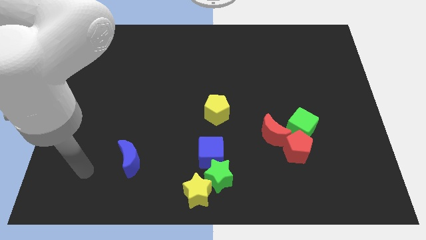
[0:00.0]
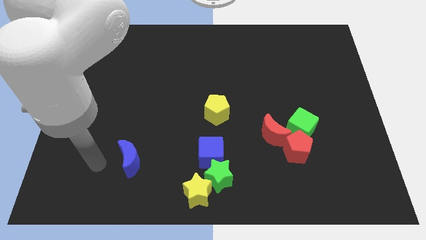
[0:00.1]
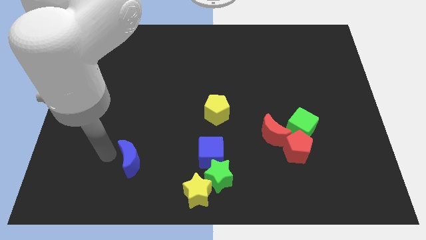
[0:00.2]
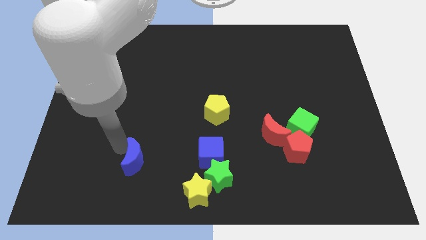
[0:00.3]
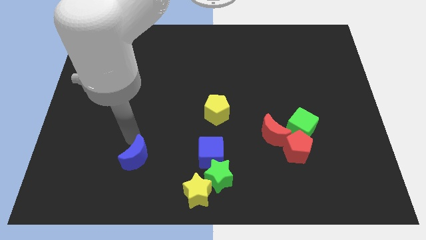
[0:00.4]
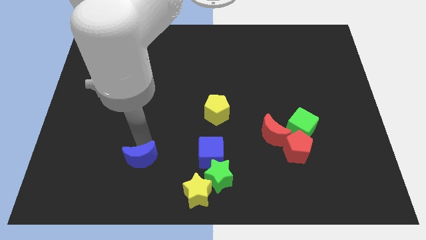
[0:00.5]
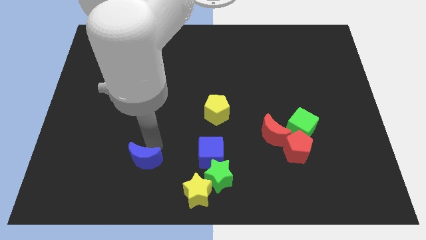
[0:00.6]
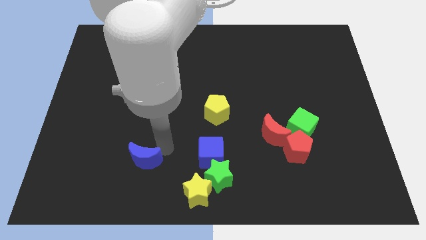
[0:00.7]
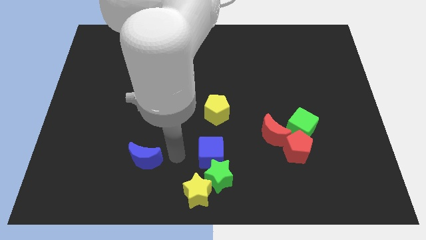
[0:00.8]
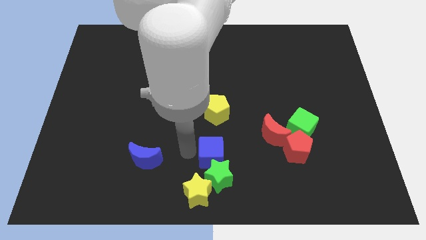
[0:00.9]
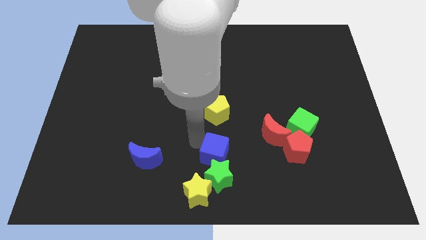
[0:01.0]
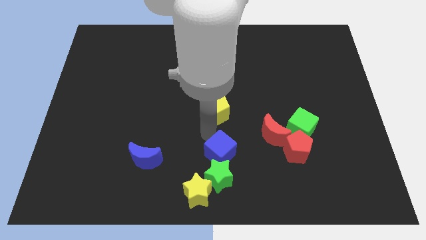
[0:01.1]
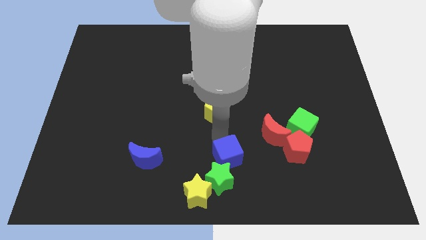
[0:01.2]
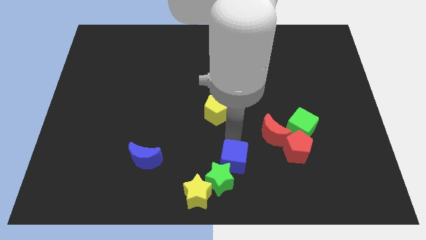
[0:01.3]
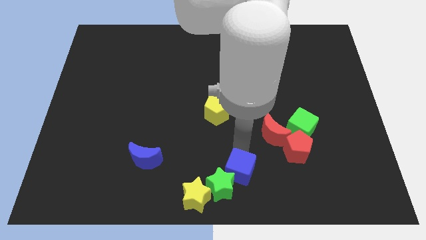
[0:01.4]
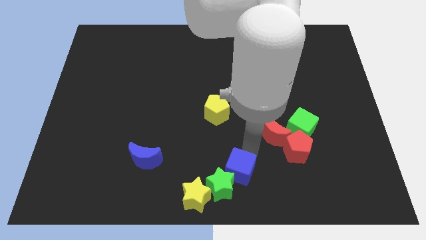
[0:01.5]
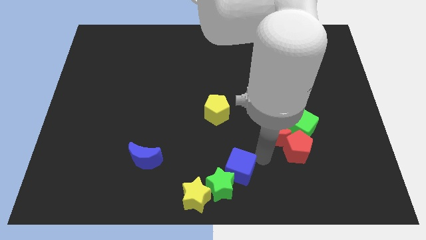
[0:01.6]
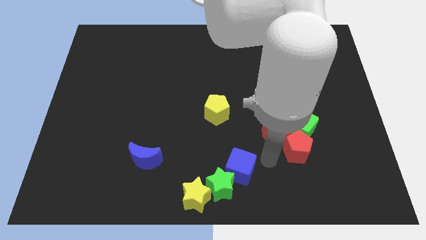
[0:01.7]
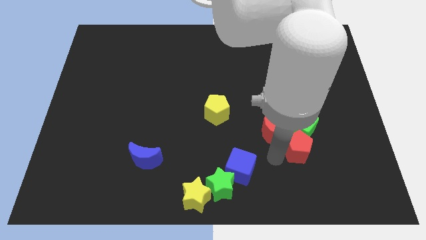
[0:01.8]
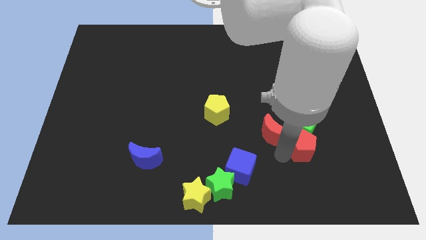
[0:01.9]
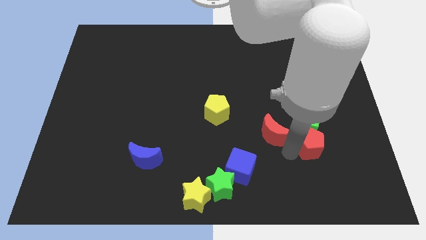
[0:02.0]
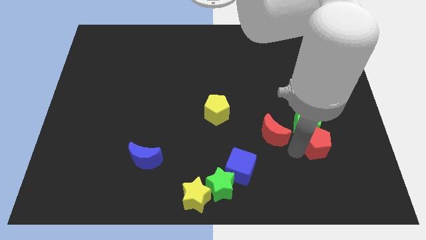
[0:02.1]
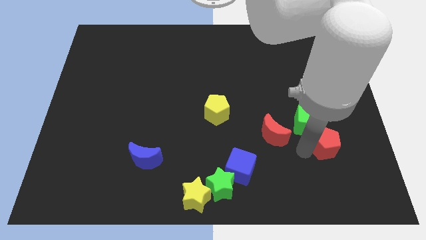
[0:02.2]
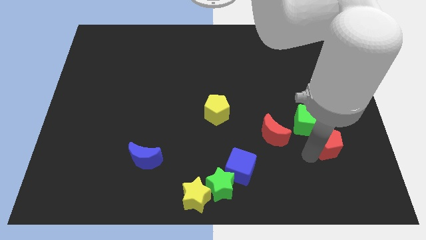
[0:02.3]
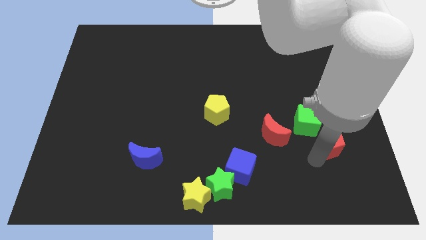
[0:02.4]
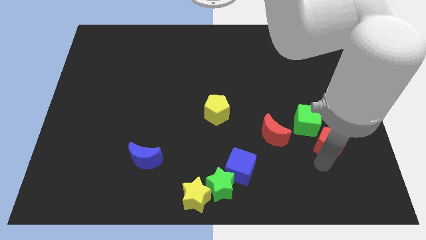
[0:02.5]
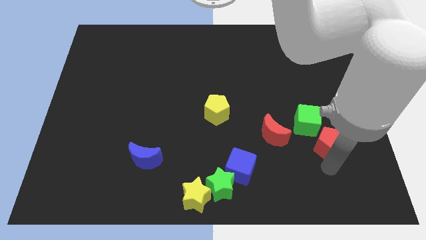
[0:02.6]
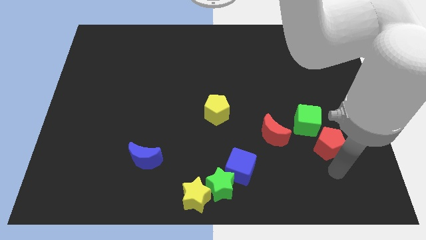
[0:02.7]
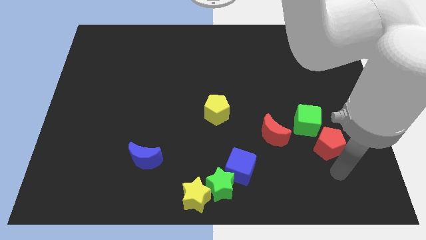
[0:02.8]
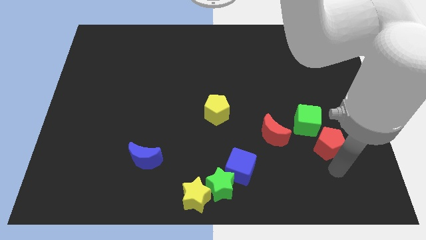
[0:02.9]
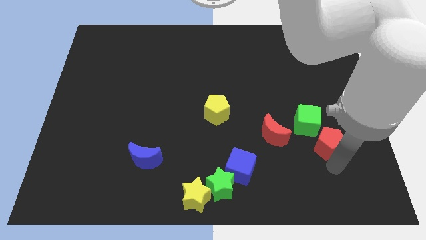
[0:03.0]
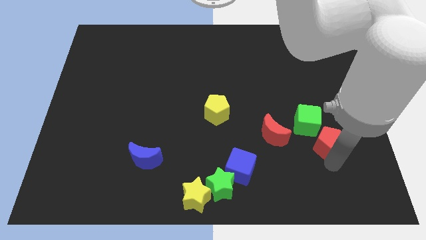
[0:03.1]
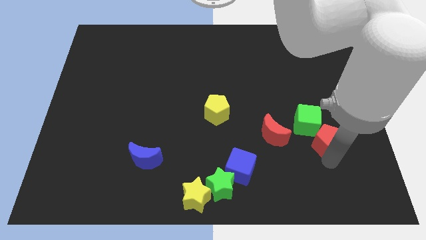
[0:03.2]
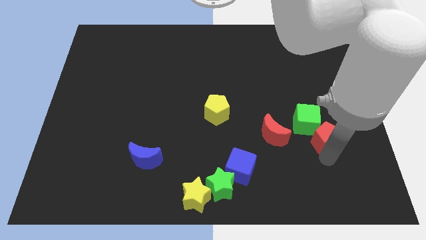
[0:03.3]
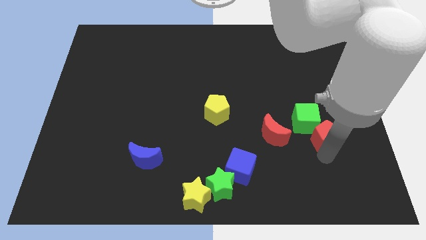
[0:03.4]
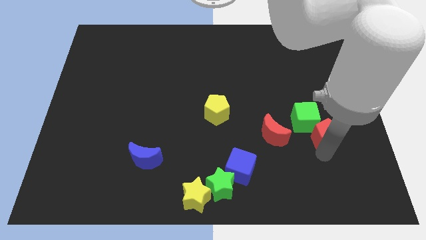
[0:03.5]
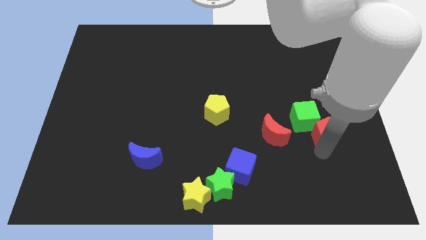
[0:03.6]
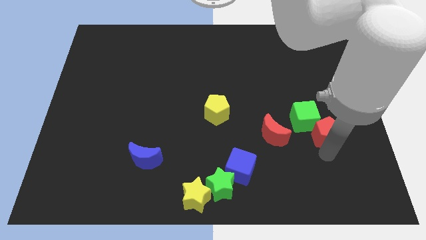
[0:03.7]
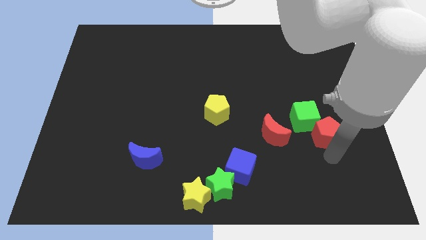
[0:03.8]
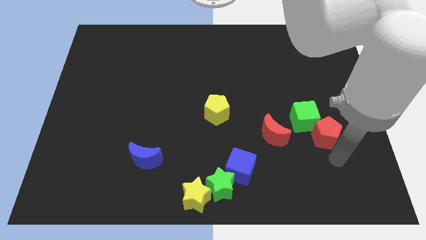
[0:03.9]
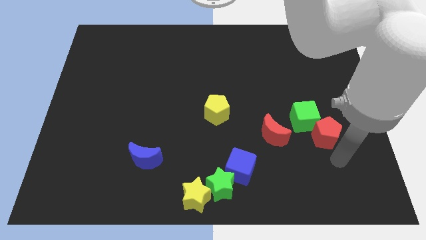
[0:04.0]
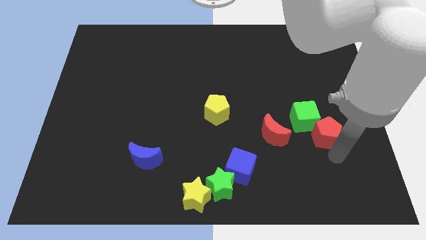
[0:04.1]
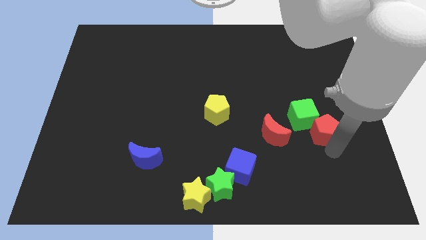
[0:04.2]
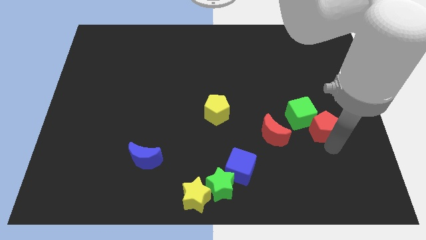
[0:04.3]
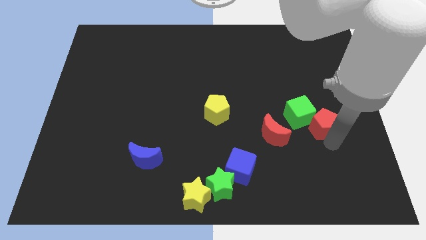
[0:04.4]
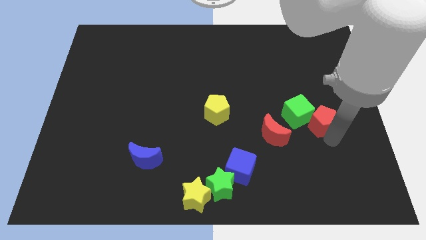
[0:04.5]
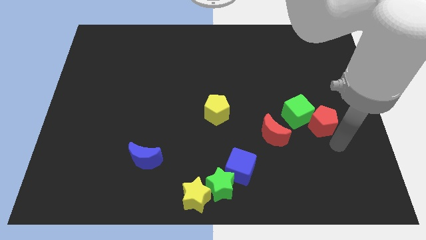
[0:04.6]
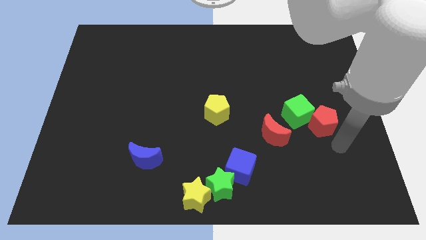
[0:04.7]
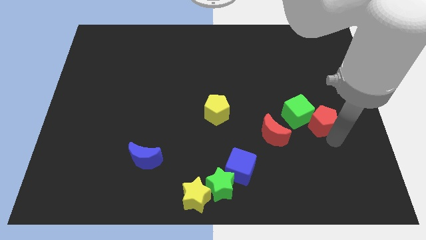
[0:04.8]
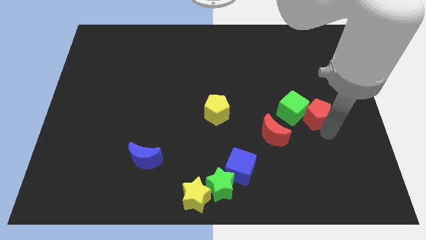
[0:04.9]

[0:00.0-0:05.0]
push the red pentagon up somewhat

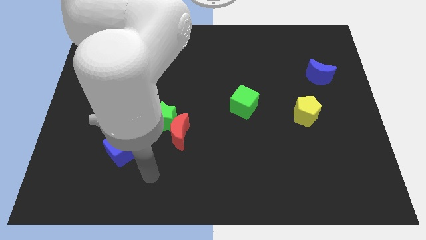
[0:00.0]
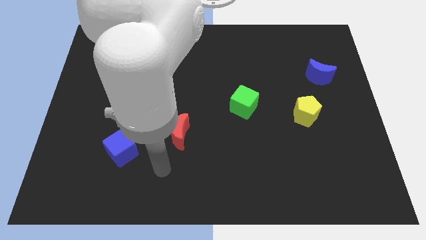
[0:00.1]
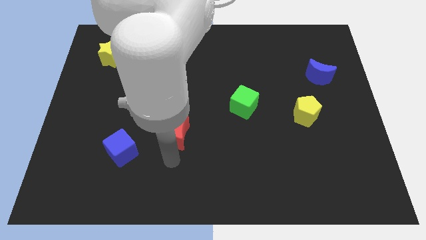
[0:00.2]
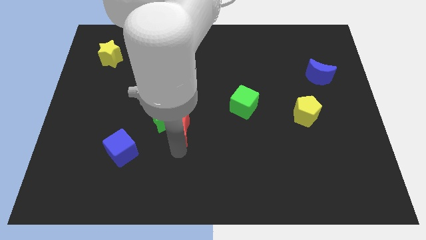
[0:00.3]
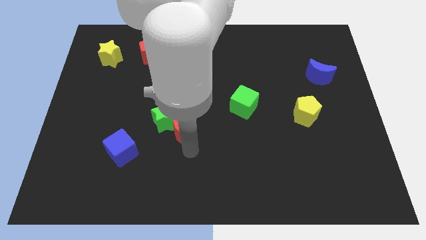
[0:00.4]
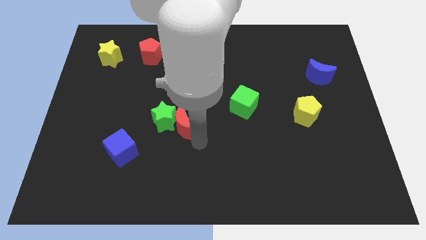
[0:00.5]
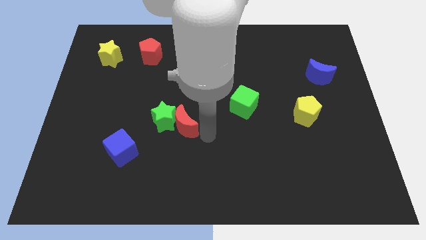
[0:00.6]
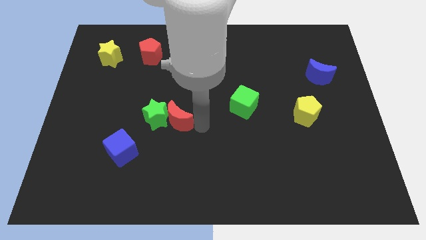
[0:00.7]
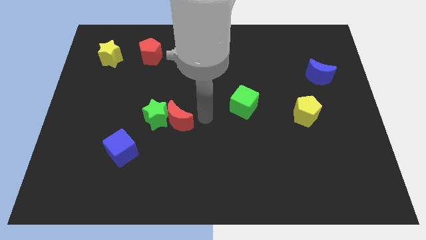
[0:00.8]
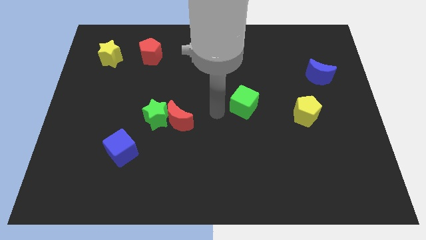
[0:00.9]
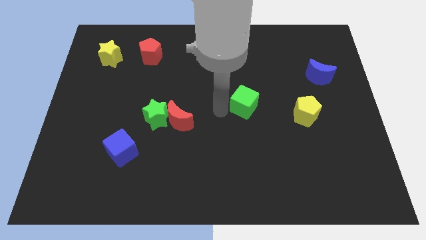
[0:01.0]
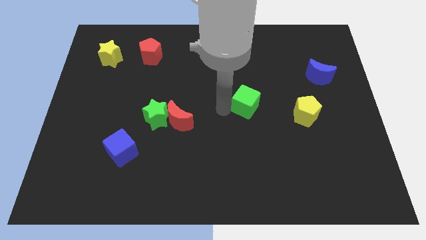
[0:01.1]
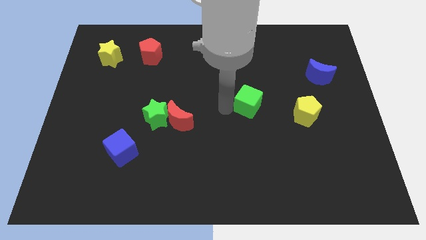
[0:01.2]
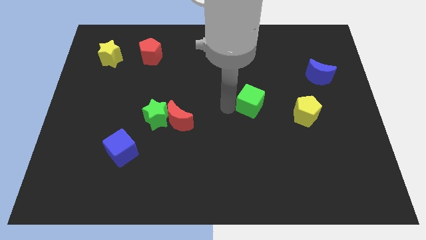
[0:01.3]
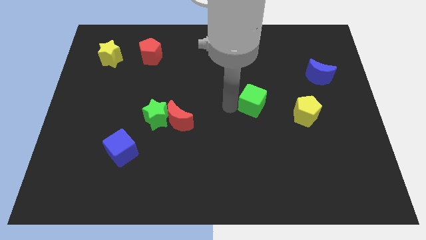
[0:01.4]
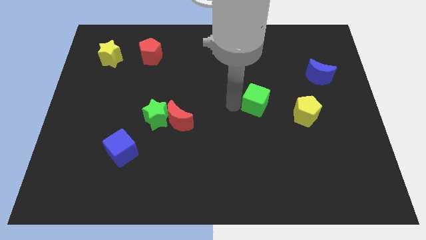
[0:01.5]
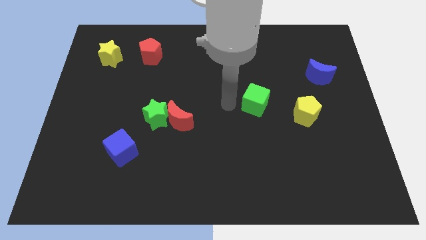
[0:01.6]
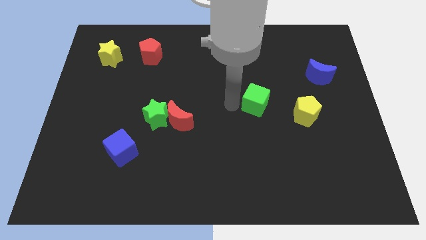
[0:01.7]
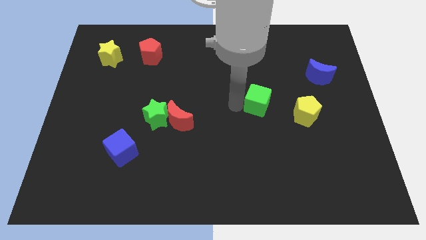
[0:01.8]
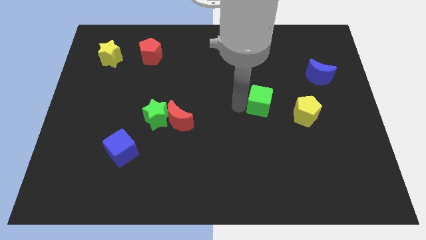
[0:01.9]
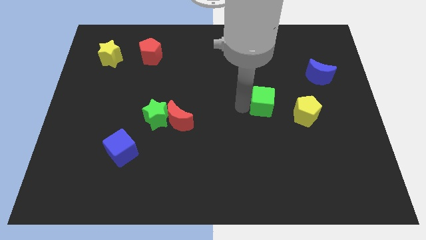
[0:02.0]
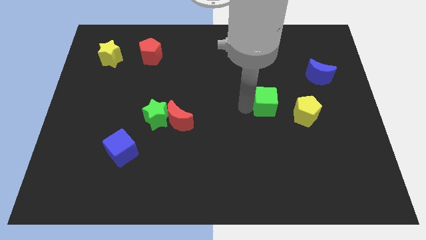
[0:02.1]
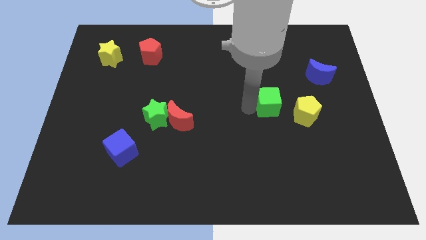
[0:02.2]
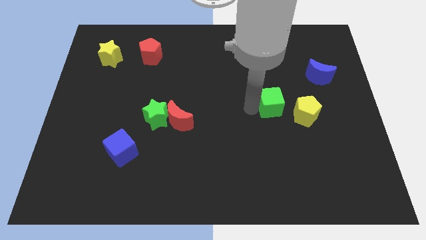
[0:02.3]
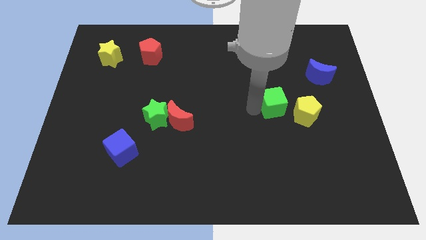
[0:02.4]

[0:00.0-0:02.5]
slide the green cube to the right a bit

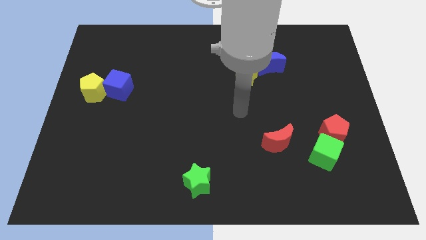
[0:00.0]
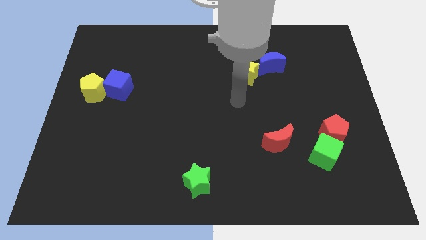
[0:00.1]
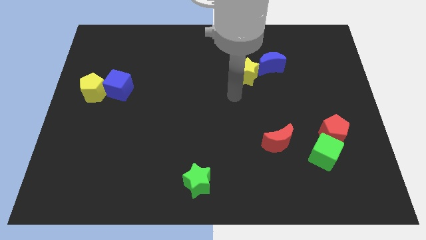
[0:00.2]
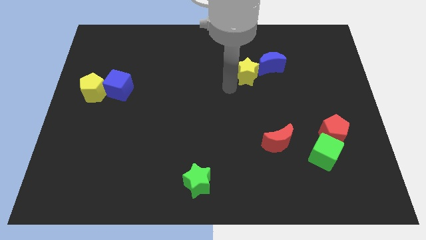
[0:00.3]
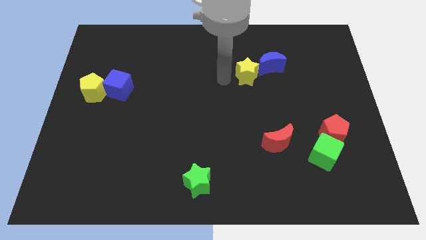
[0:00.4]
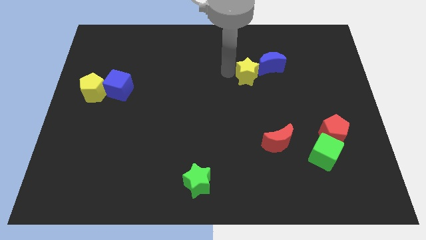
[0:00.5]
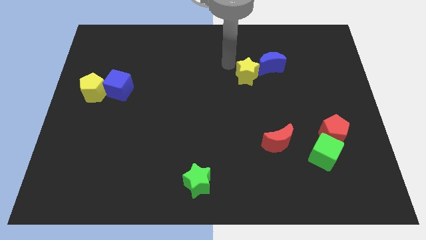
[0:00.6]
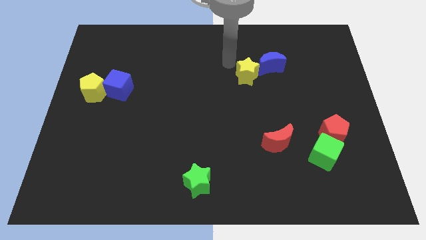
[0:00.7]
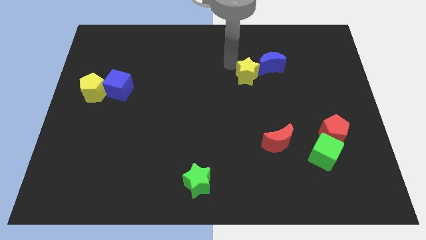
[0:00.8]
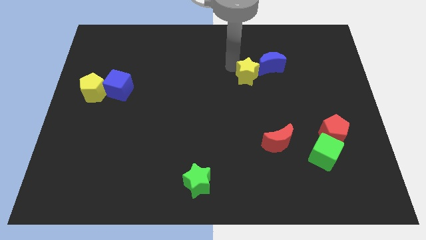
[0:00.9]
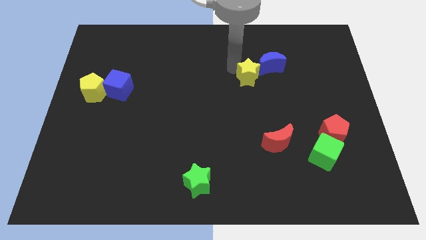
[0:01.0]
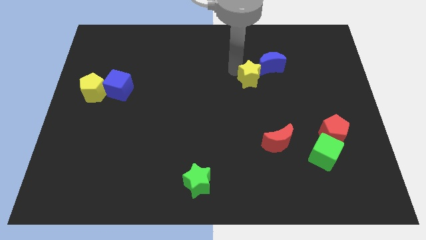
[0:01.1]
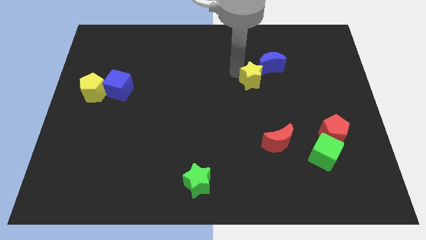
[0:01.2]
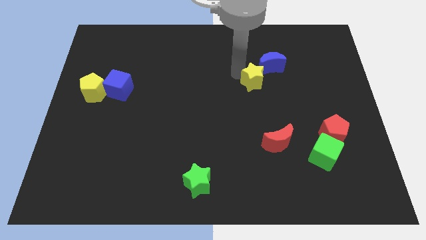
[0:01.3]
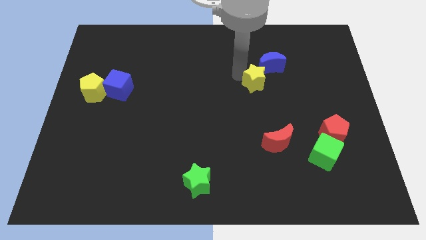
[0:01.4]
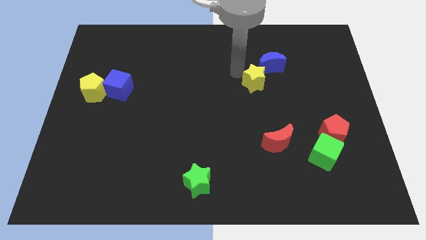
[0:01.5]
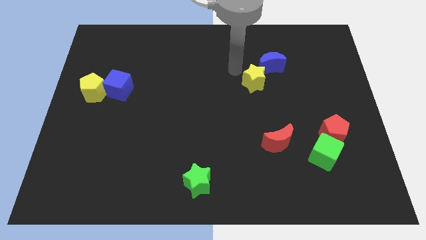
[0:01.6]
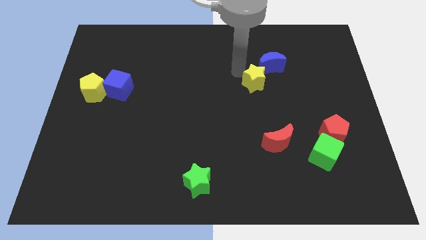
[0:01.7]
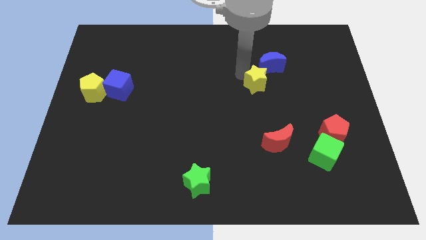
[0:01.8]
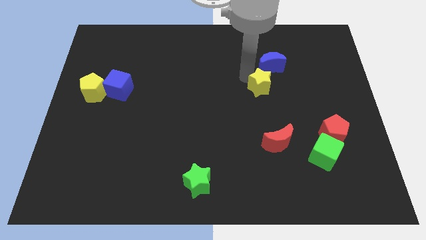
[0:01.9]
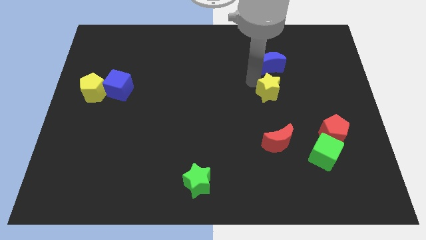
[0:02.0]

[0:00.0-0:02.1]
slightly push the yellow star down and right diagonally
